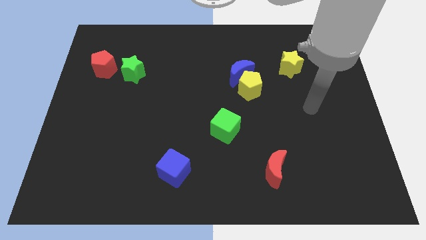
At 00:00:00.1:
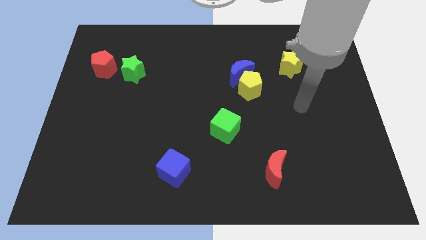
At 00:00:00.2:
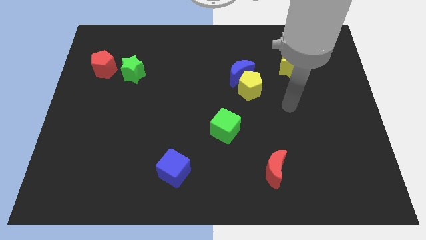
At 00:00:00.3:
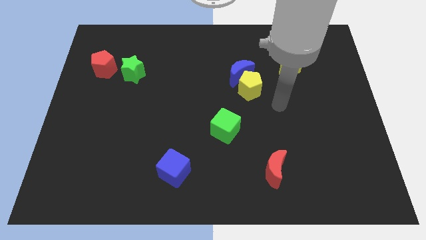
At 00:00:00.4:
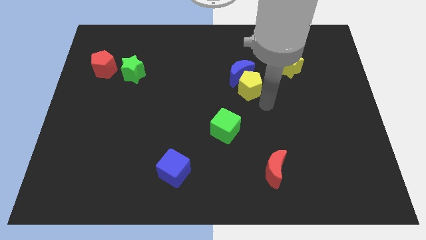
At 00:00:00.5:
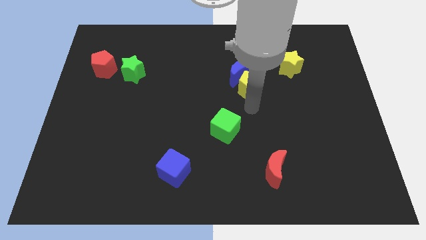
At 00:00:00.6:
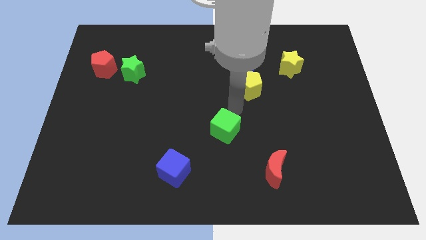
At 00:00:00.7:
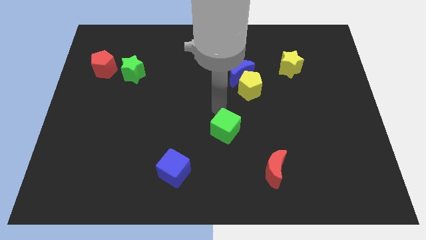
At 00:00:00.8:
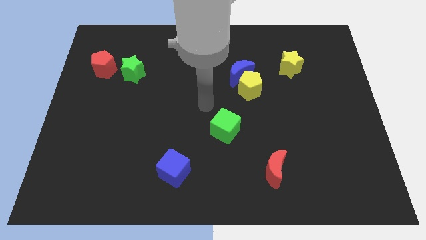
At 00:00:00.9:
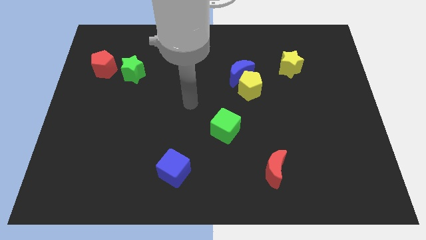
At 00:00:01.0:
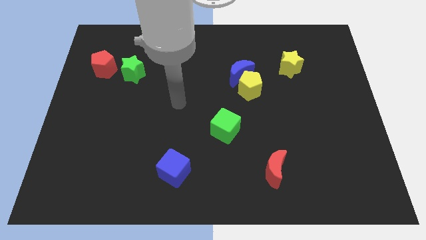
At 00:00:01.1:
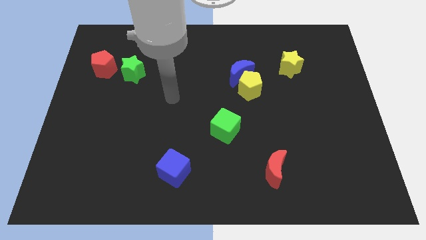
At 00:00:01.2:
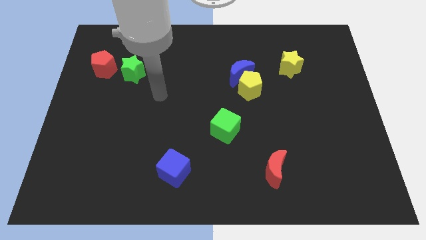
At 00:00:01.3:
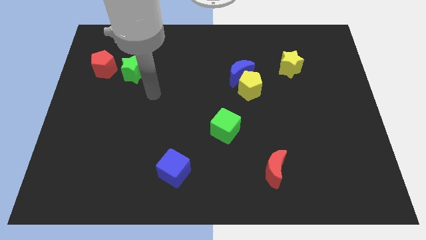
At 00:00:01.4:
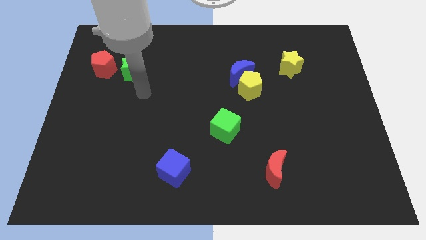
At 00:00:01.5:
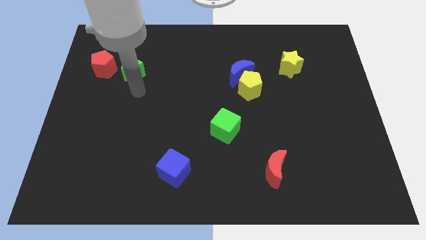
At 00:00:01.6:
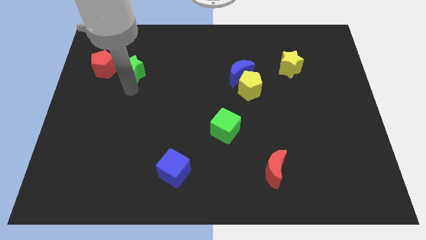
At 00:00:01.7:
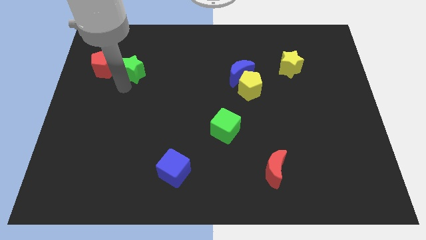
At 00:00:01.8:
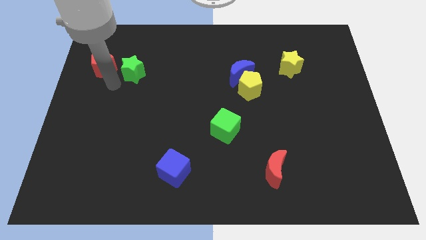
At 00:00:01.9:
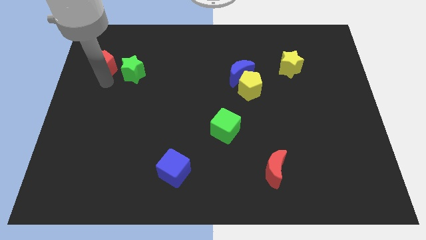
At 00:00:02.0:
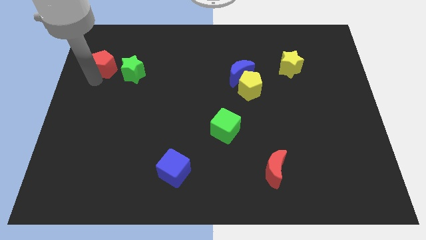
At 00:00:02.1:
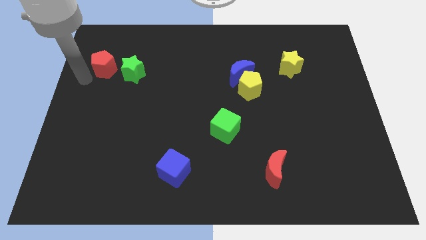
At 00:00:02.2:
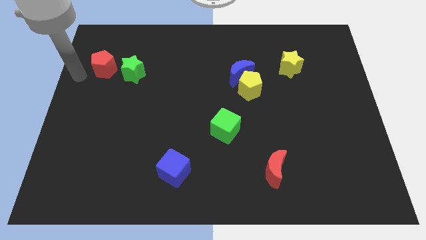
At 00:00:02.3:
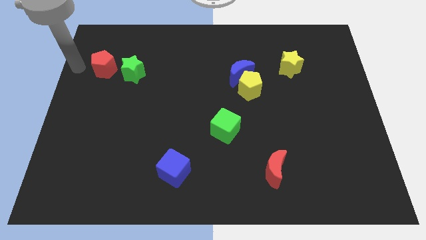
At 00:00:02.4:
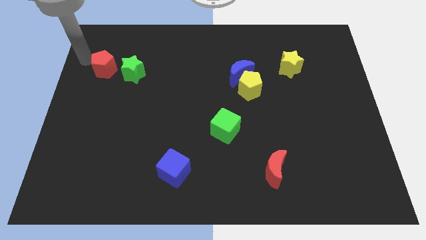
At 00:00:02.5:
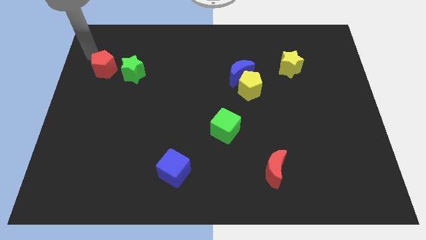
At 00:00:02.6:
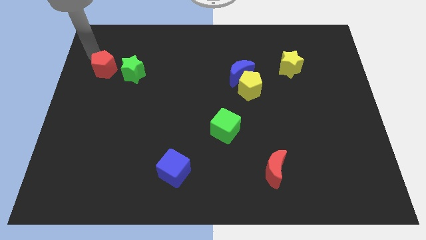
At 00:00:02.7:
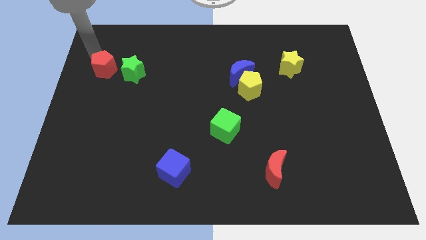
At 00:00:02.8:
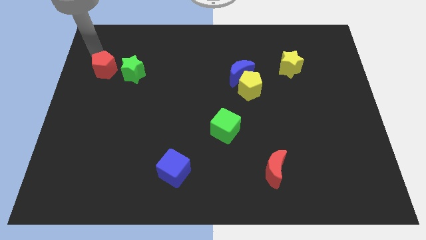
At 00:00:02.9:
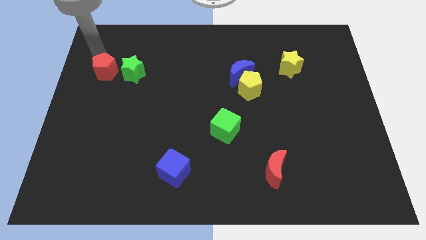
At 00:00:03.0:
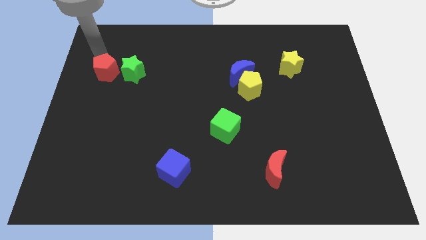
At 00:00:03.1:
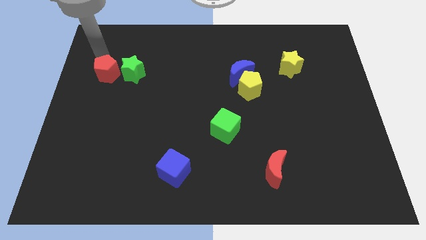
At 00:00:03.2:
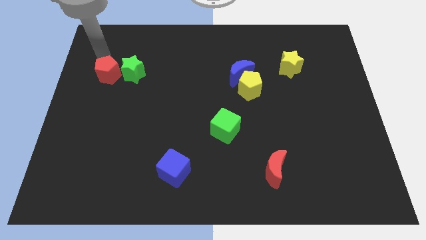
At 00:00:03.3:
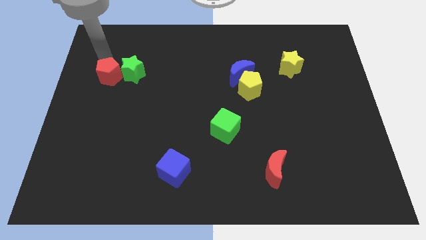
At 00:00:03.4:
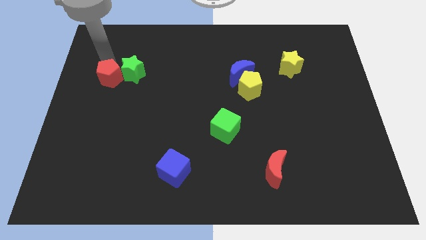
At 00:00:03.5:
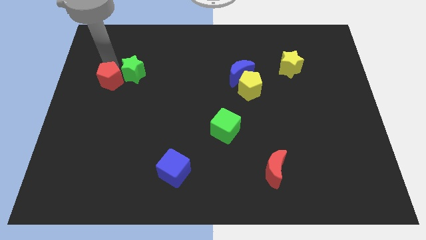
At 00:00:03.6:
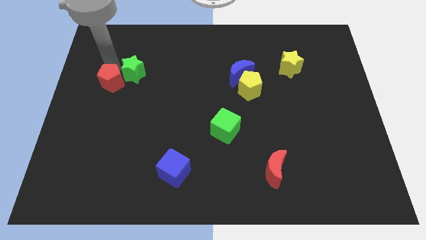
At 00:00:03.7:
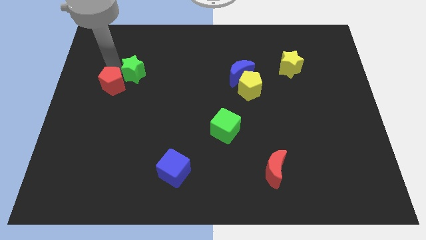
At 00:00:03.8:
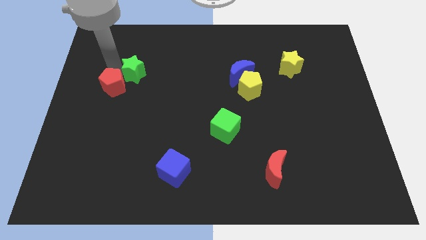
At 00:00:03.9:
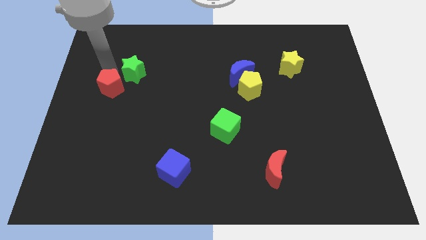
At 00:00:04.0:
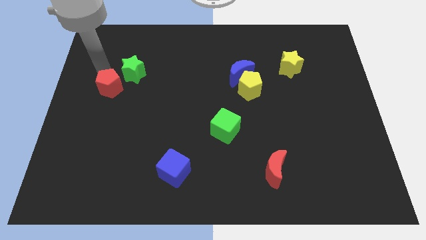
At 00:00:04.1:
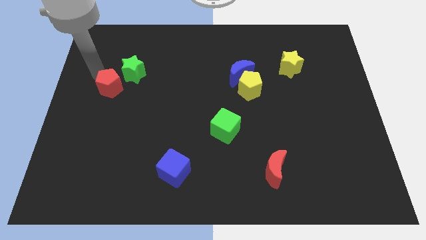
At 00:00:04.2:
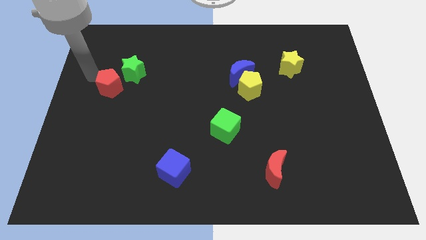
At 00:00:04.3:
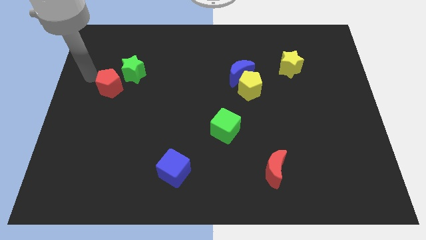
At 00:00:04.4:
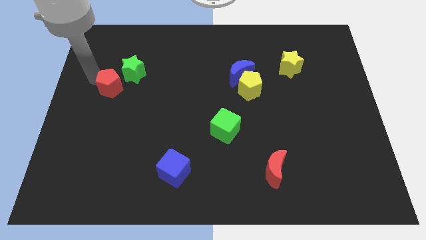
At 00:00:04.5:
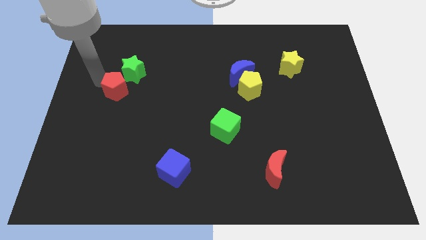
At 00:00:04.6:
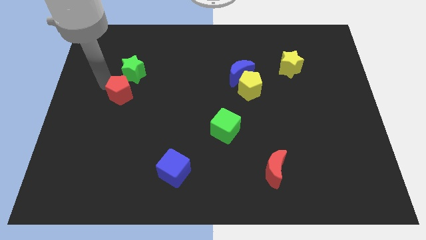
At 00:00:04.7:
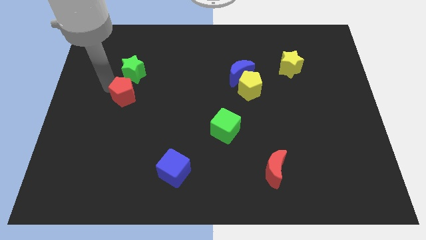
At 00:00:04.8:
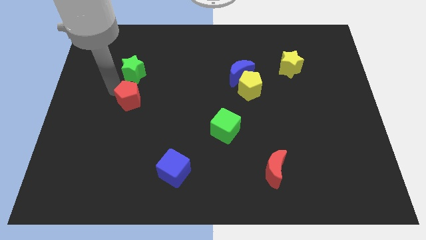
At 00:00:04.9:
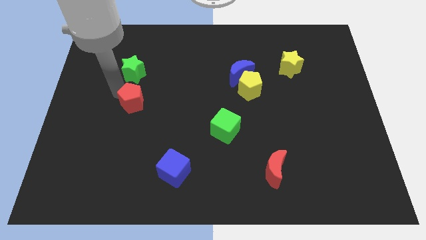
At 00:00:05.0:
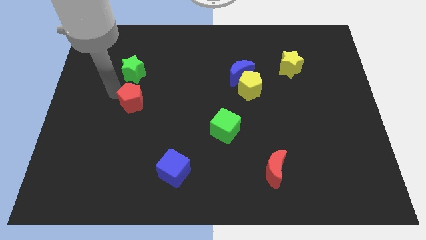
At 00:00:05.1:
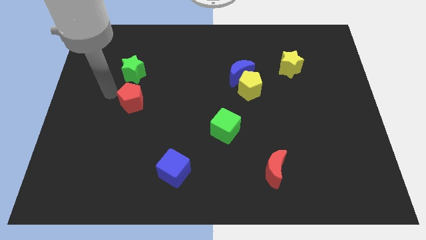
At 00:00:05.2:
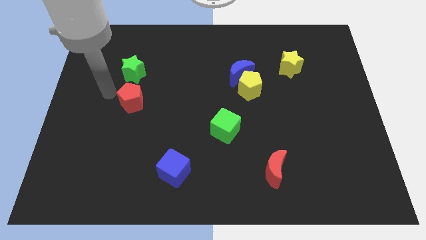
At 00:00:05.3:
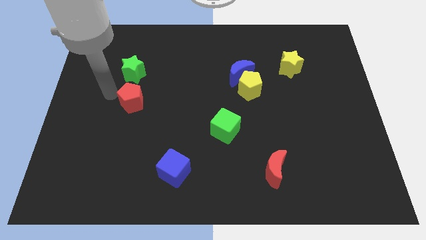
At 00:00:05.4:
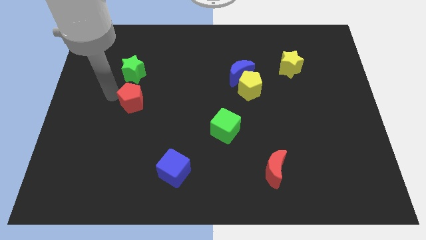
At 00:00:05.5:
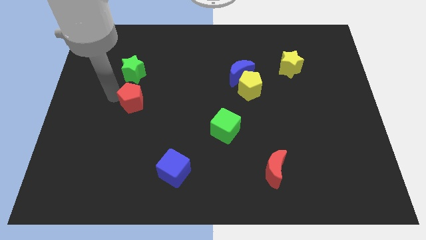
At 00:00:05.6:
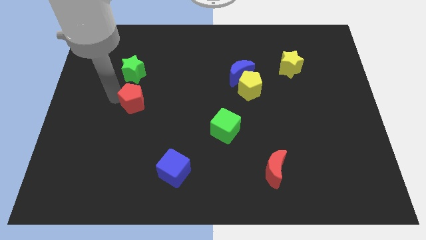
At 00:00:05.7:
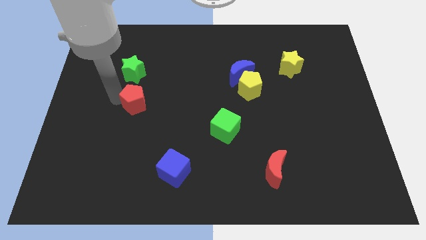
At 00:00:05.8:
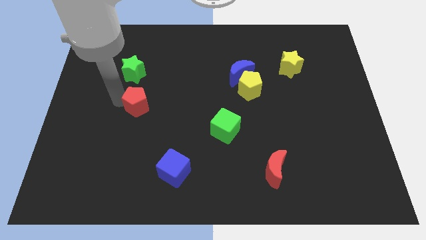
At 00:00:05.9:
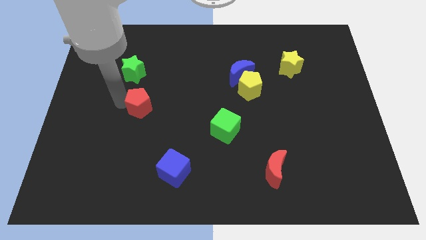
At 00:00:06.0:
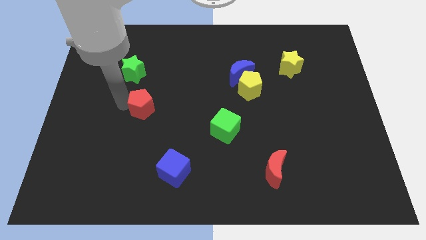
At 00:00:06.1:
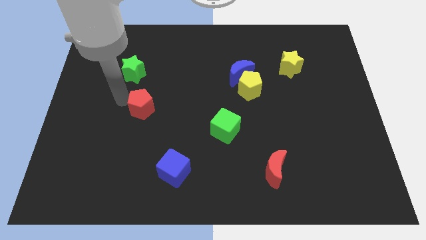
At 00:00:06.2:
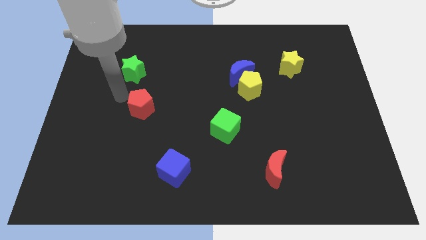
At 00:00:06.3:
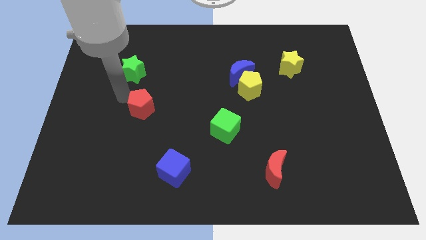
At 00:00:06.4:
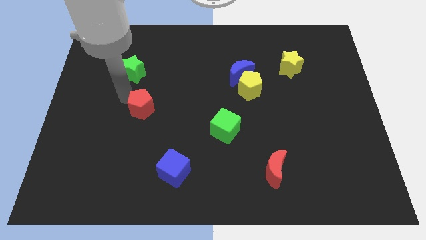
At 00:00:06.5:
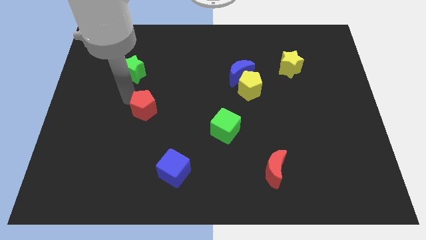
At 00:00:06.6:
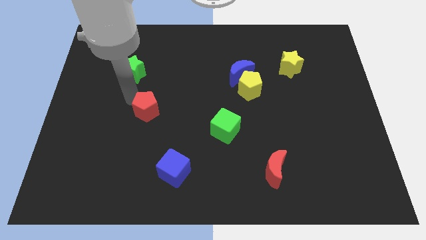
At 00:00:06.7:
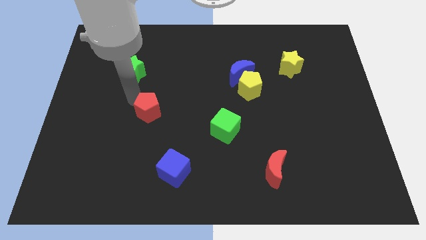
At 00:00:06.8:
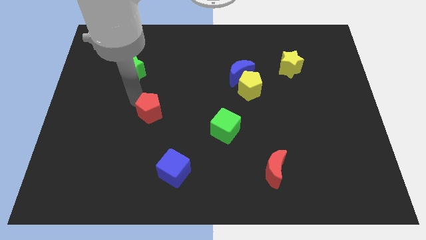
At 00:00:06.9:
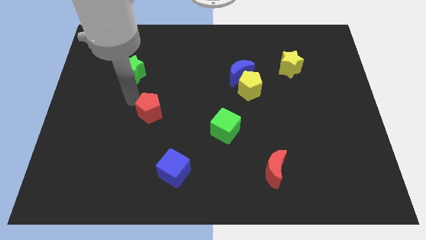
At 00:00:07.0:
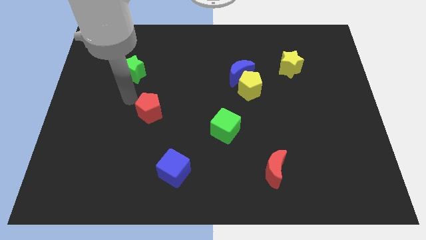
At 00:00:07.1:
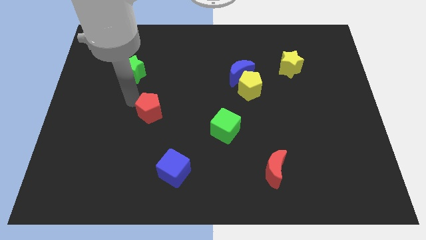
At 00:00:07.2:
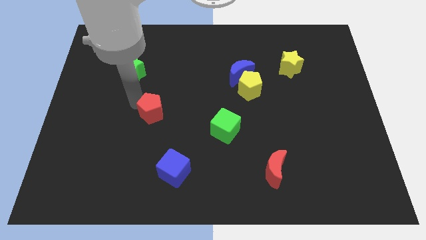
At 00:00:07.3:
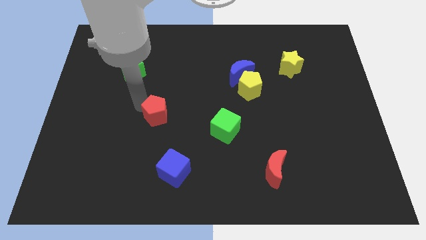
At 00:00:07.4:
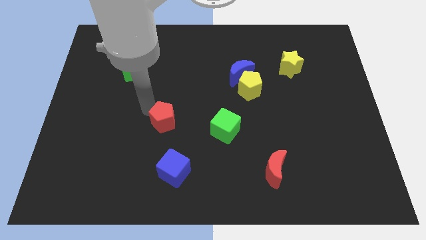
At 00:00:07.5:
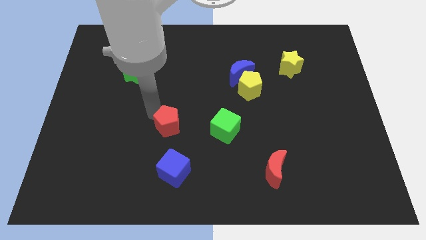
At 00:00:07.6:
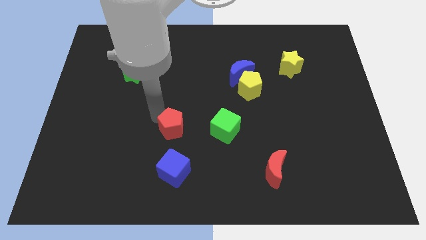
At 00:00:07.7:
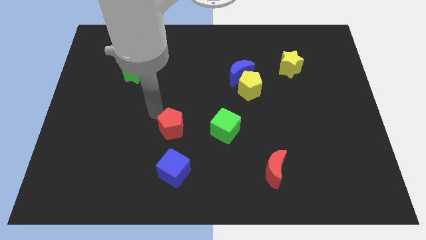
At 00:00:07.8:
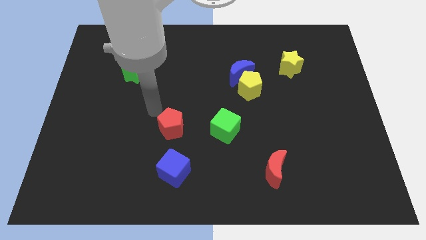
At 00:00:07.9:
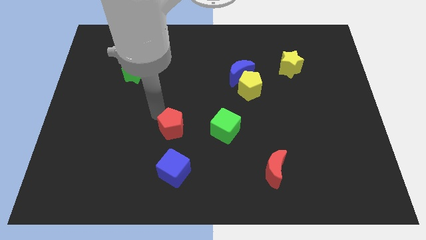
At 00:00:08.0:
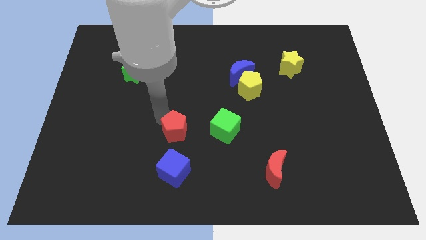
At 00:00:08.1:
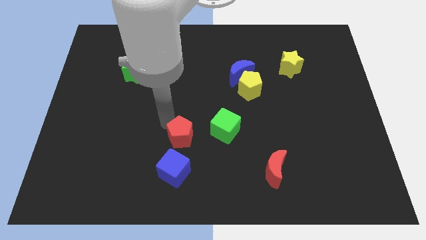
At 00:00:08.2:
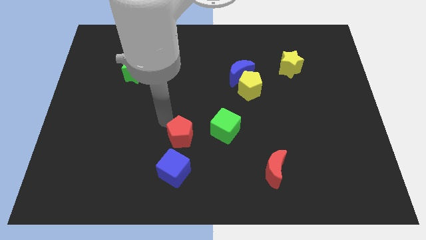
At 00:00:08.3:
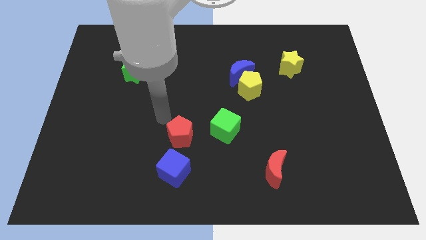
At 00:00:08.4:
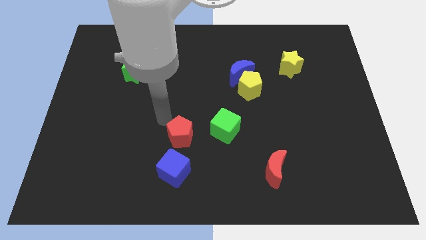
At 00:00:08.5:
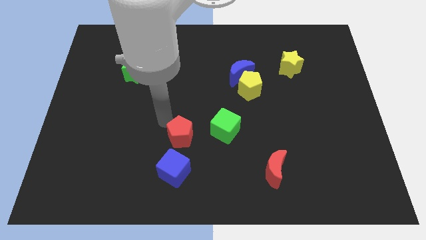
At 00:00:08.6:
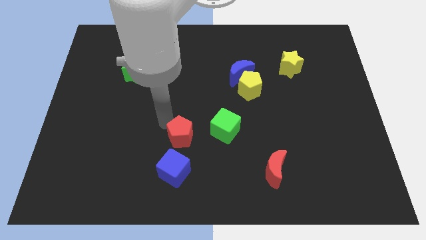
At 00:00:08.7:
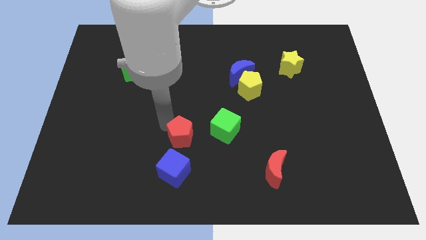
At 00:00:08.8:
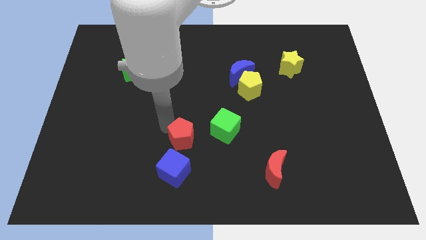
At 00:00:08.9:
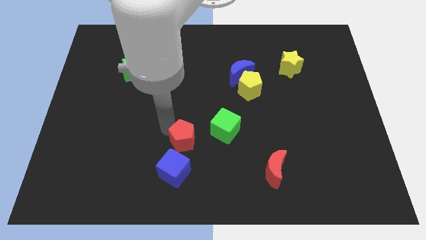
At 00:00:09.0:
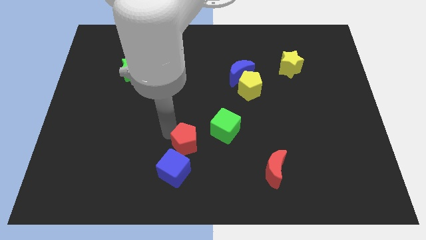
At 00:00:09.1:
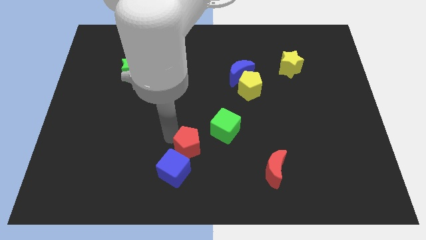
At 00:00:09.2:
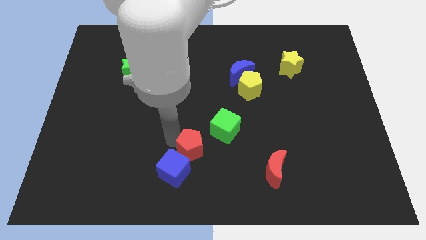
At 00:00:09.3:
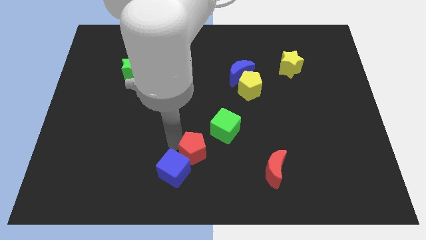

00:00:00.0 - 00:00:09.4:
put the red pentagon to the right side of the blue cube
